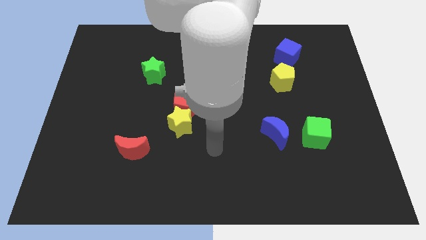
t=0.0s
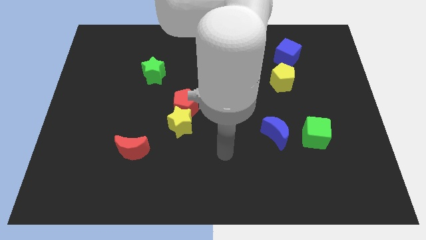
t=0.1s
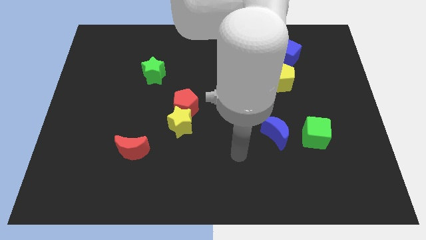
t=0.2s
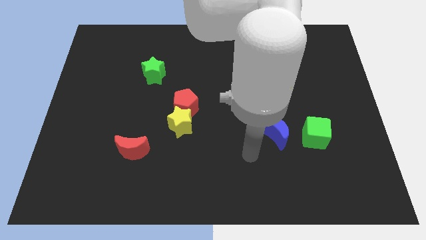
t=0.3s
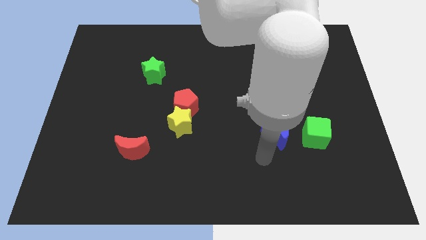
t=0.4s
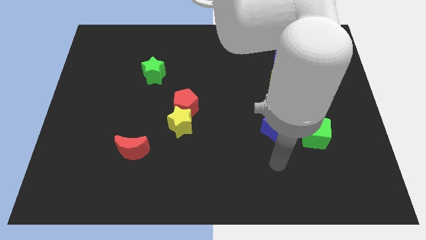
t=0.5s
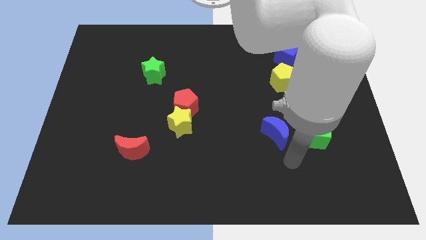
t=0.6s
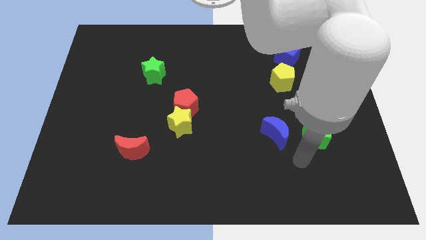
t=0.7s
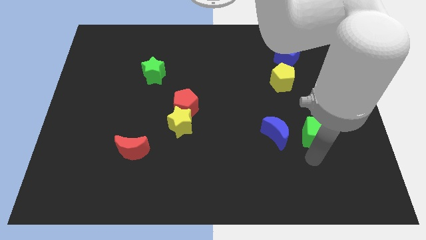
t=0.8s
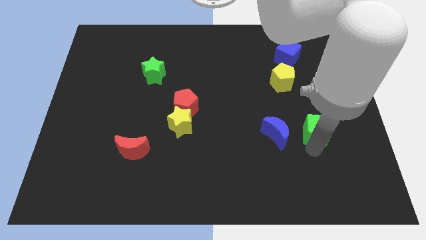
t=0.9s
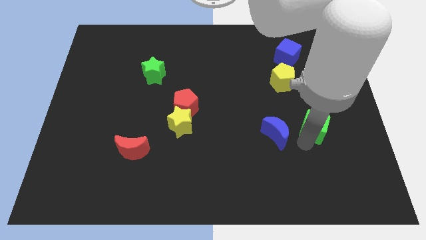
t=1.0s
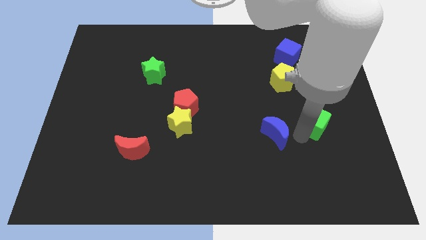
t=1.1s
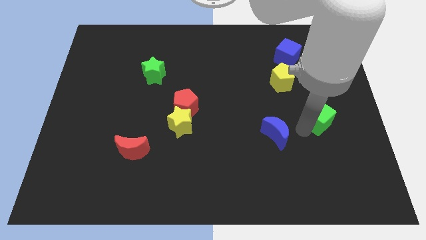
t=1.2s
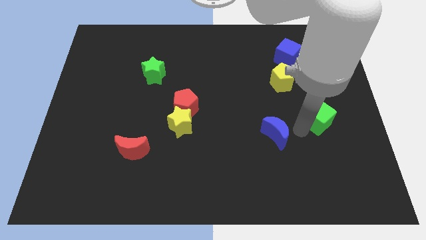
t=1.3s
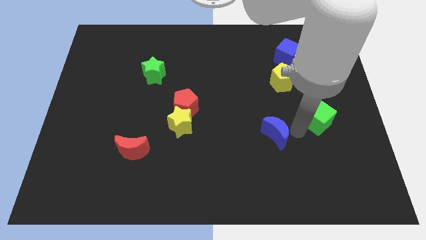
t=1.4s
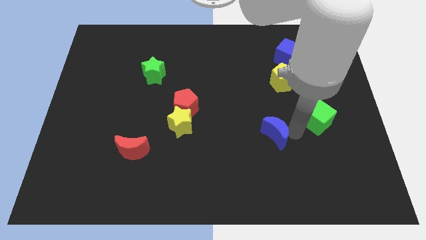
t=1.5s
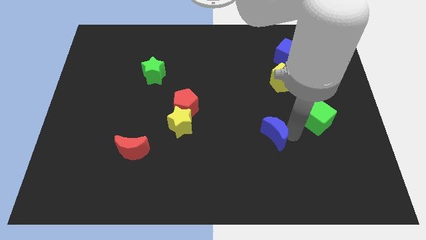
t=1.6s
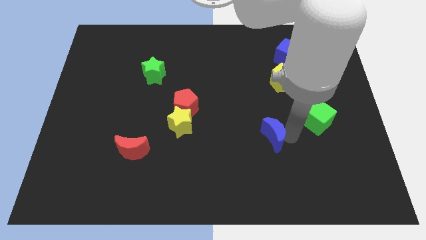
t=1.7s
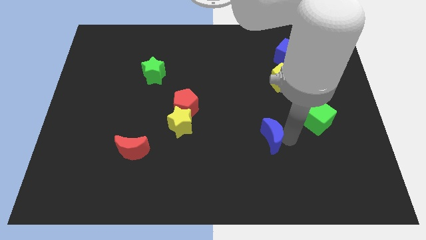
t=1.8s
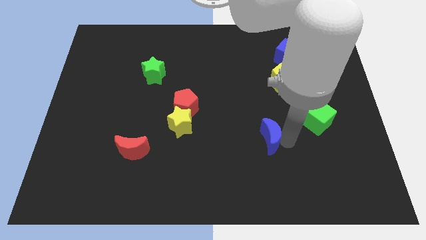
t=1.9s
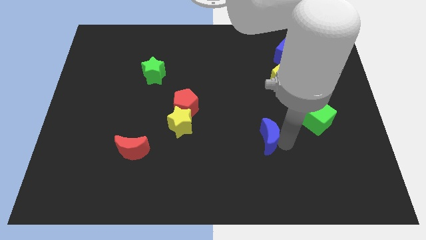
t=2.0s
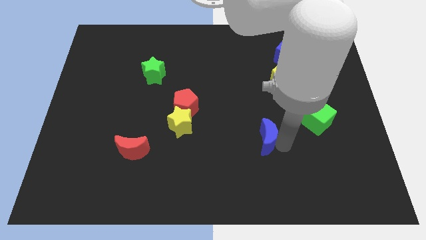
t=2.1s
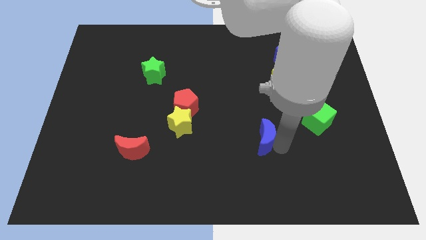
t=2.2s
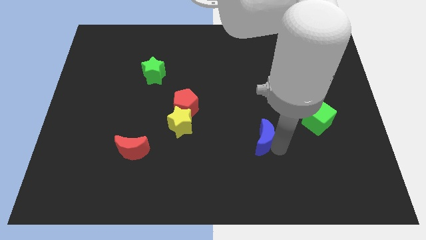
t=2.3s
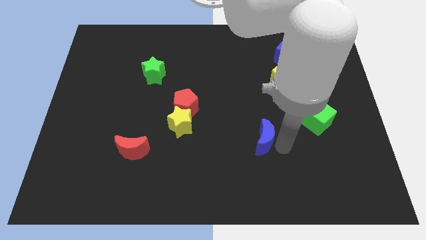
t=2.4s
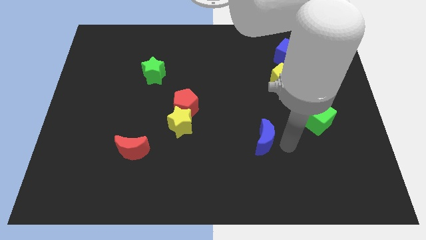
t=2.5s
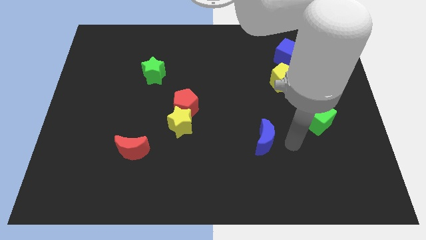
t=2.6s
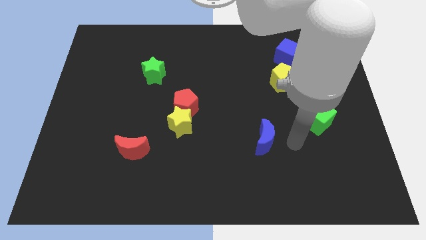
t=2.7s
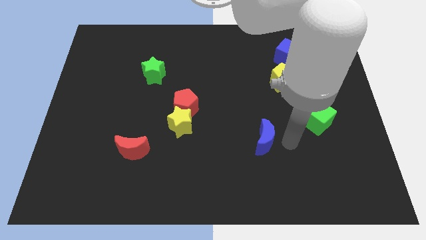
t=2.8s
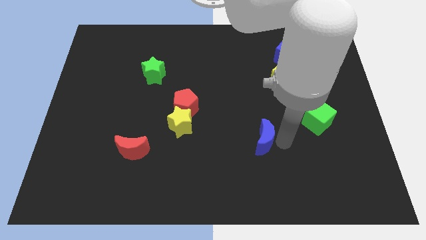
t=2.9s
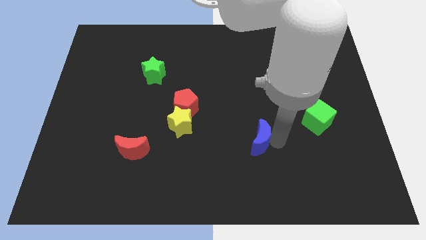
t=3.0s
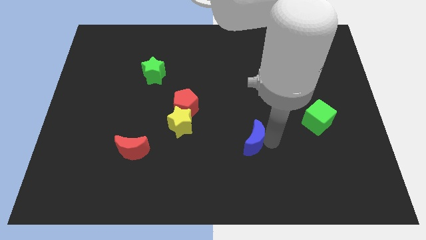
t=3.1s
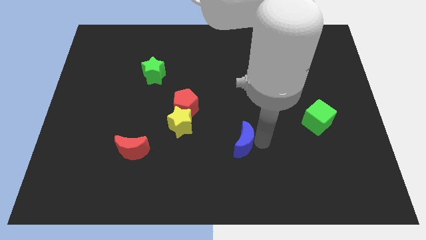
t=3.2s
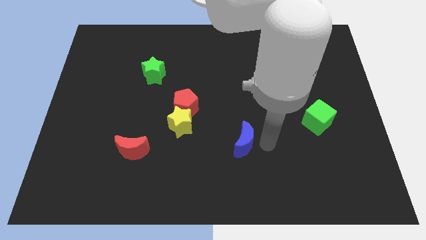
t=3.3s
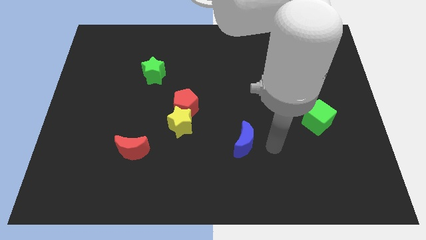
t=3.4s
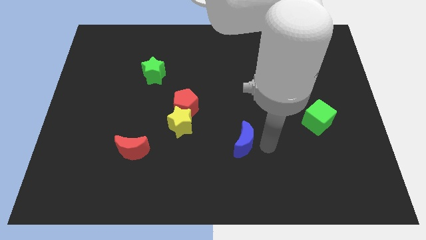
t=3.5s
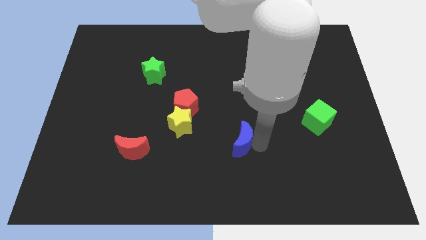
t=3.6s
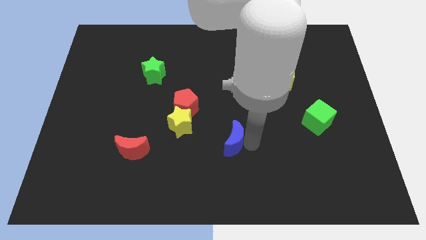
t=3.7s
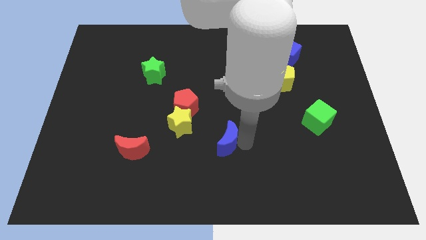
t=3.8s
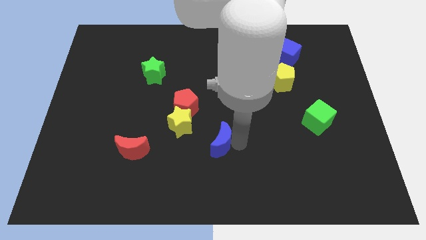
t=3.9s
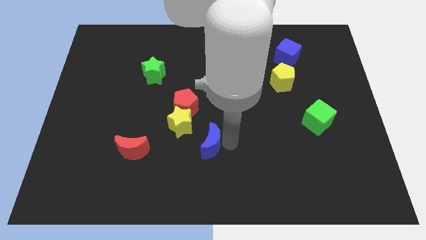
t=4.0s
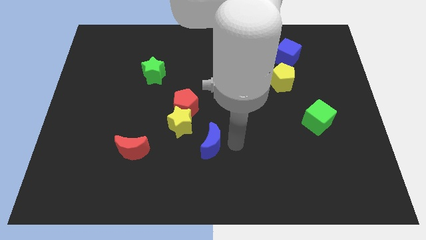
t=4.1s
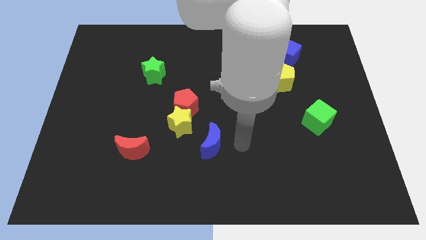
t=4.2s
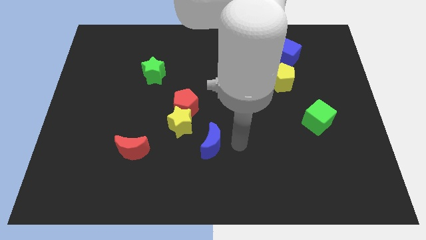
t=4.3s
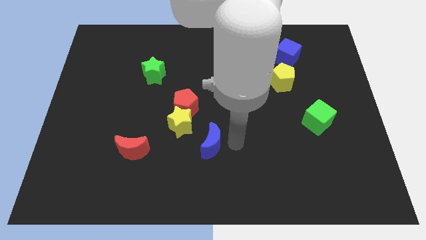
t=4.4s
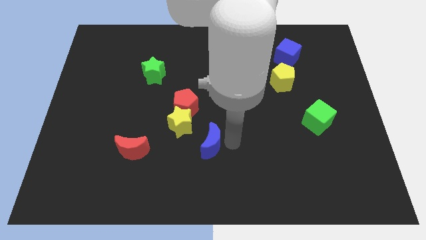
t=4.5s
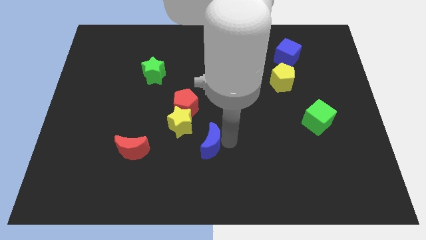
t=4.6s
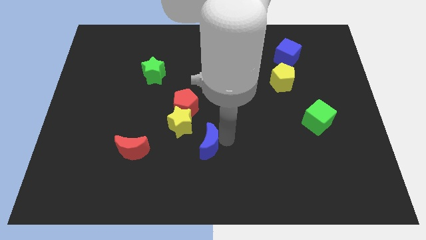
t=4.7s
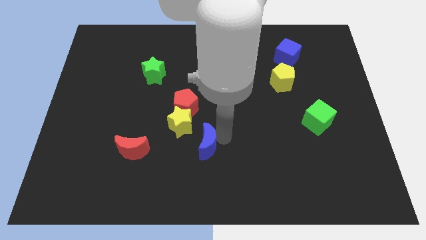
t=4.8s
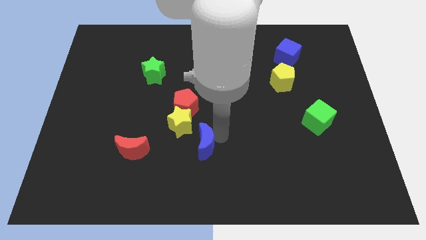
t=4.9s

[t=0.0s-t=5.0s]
put the blue moon to the bottom of the red pentagon

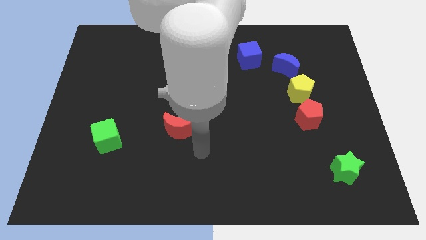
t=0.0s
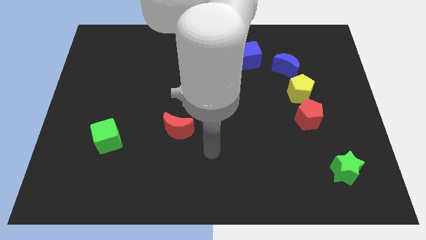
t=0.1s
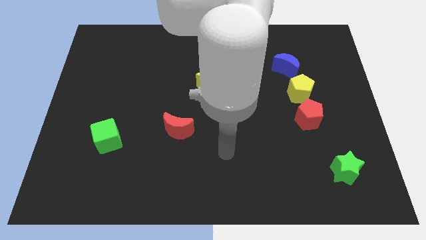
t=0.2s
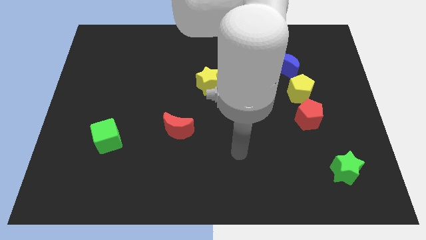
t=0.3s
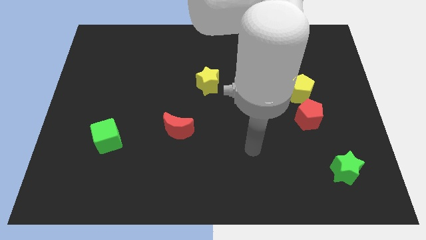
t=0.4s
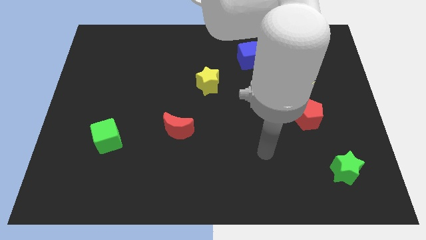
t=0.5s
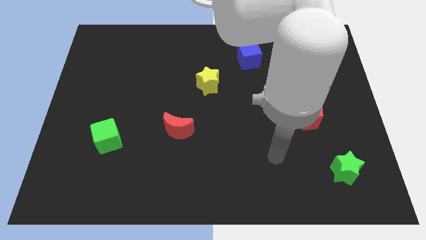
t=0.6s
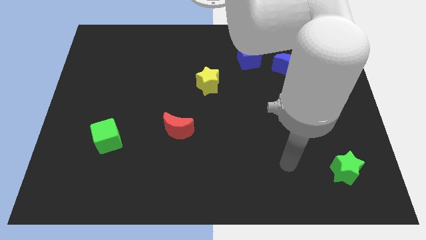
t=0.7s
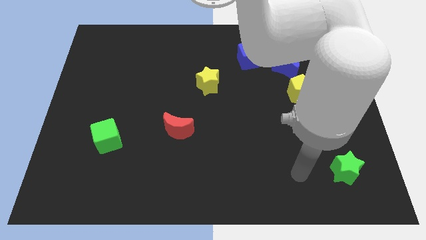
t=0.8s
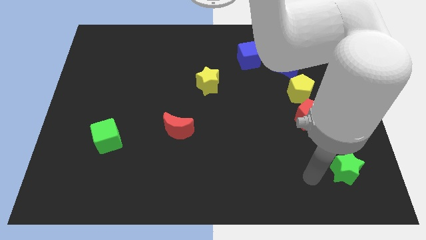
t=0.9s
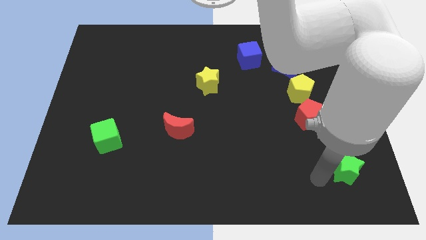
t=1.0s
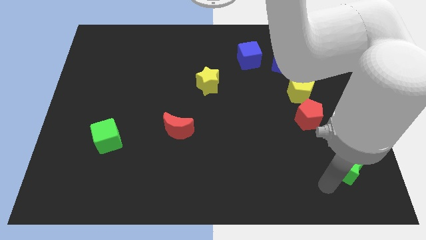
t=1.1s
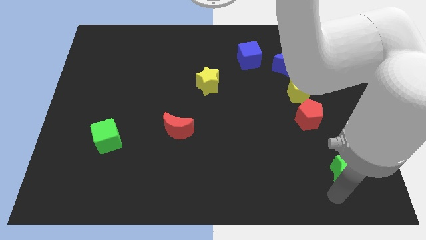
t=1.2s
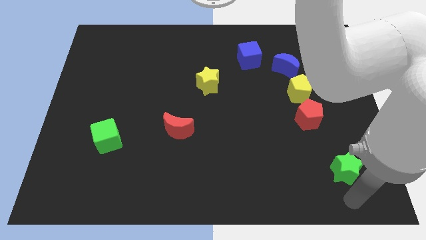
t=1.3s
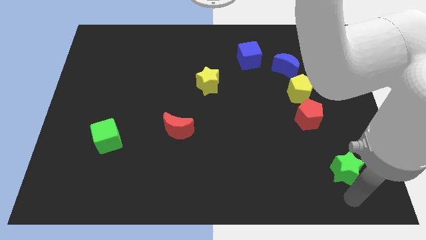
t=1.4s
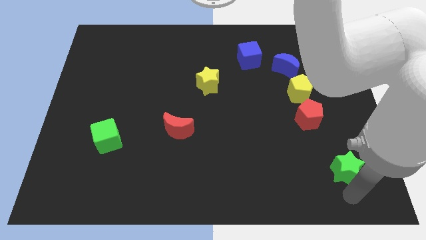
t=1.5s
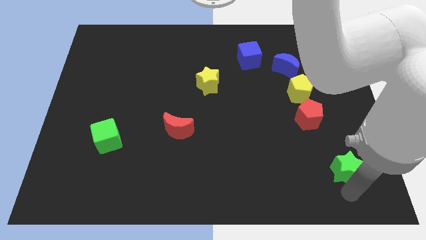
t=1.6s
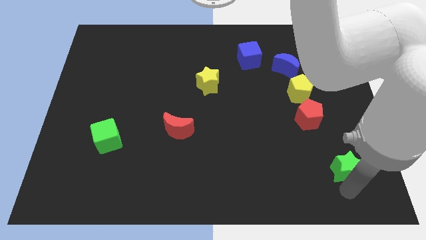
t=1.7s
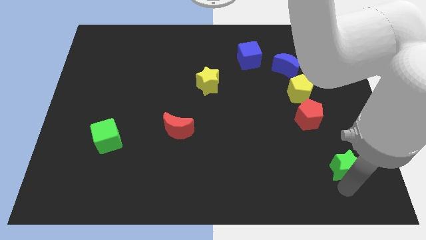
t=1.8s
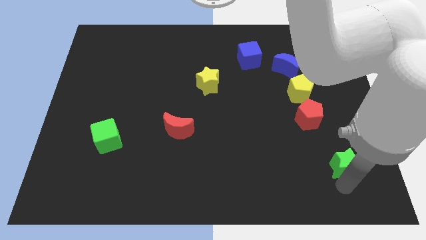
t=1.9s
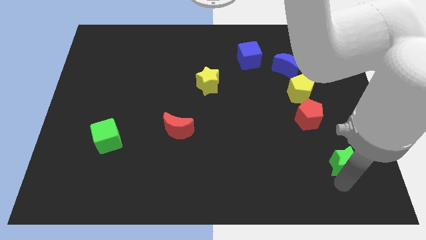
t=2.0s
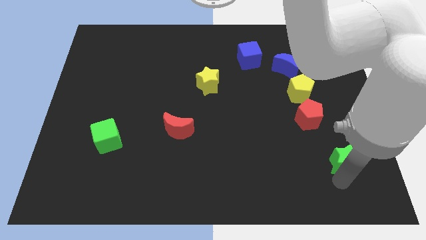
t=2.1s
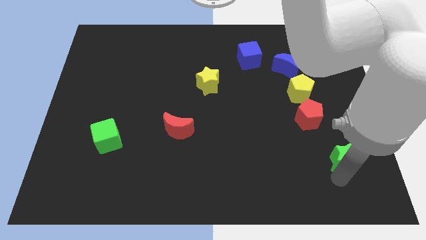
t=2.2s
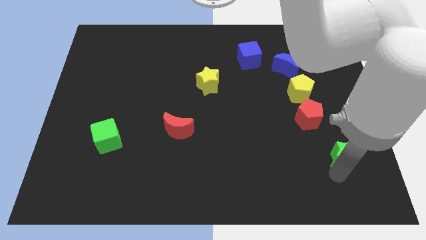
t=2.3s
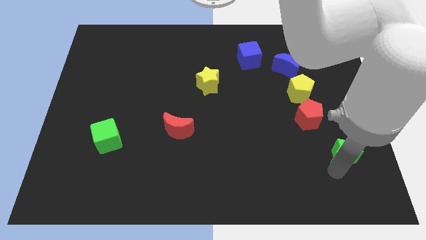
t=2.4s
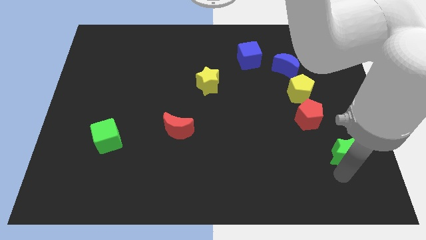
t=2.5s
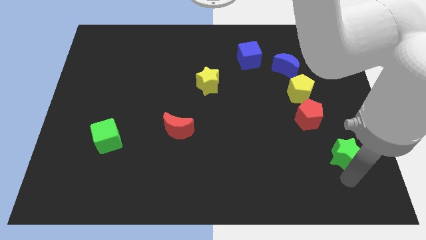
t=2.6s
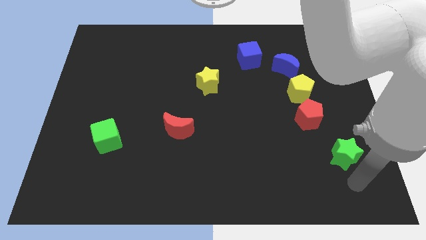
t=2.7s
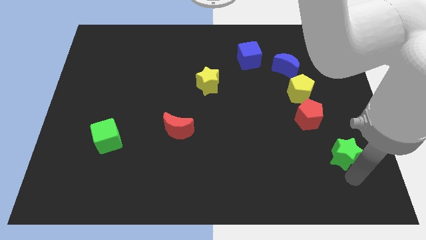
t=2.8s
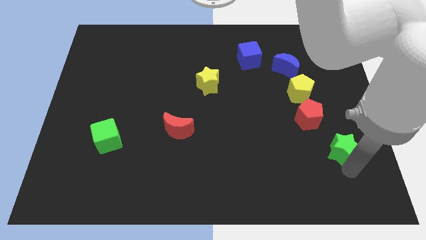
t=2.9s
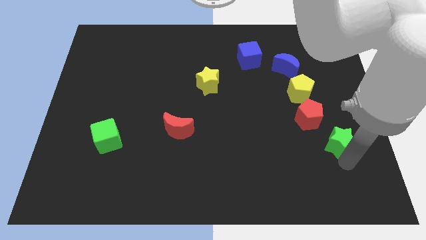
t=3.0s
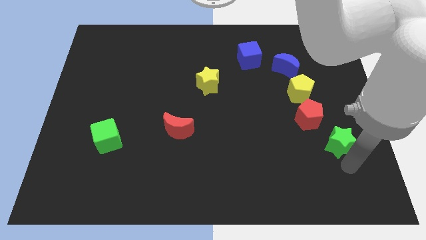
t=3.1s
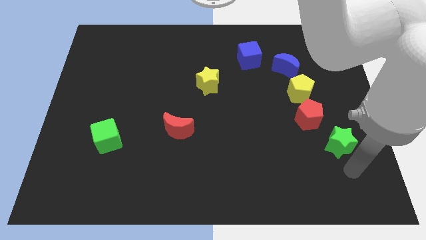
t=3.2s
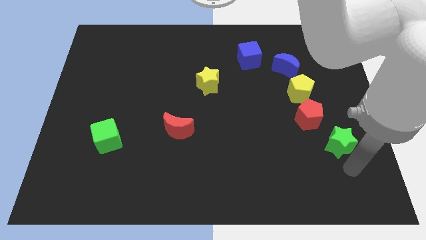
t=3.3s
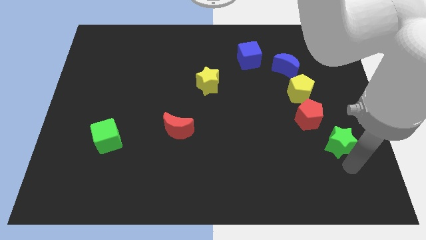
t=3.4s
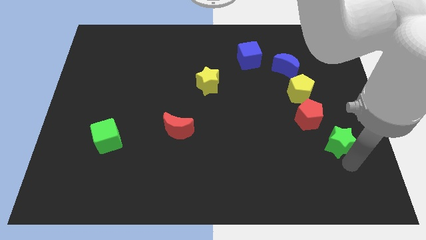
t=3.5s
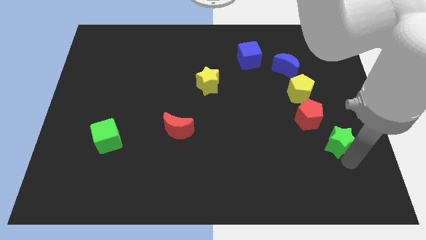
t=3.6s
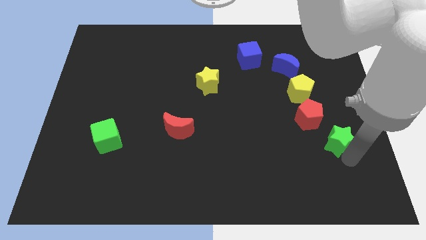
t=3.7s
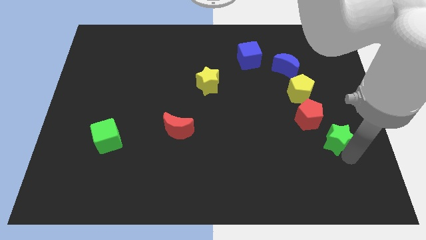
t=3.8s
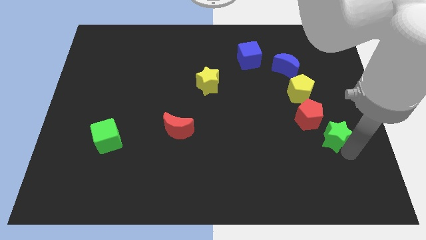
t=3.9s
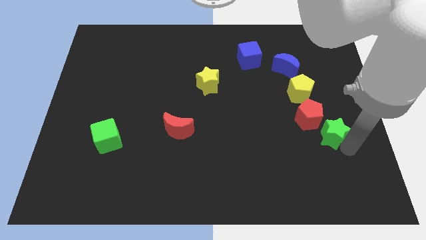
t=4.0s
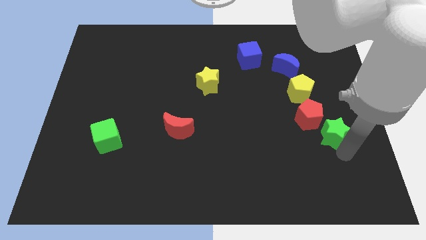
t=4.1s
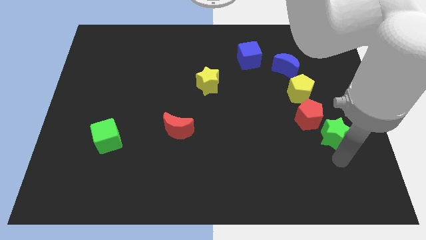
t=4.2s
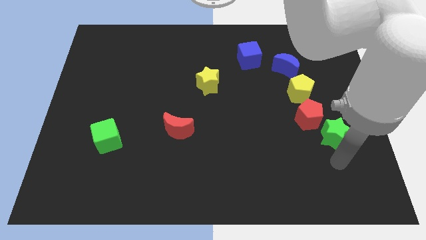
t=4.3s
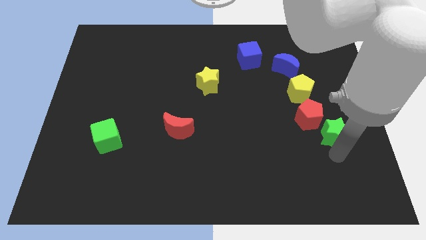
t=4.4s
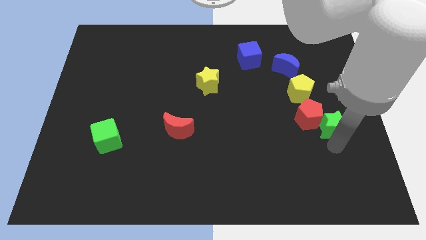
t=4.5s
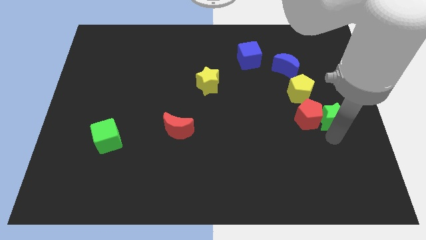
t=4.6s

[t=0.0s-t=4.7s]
move the green star to the top right side of the red pentagon
